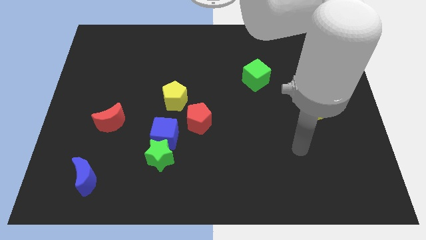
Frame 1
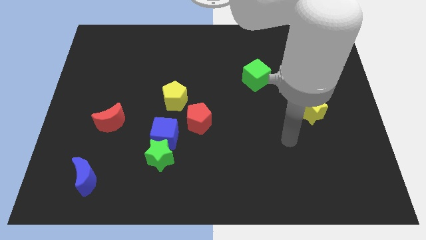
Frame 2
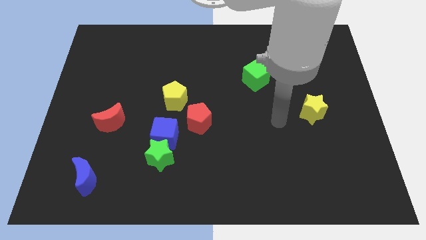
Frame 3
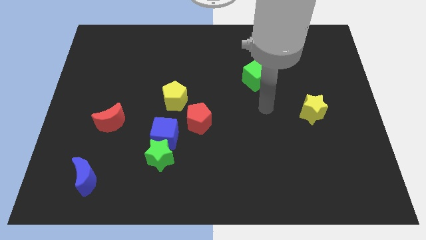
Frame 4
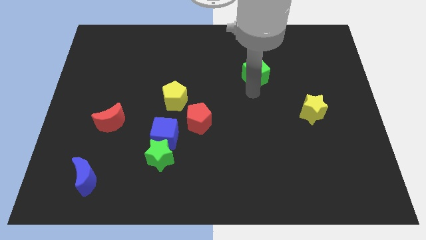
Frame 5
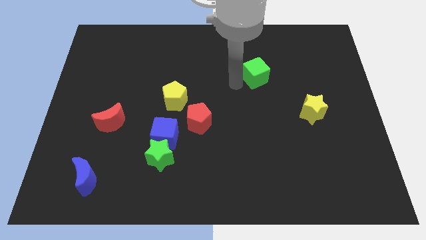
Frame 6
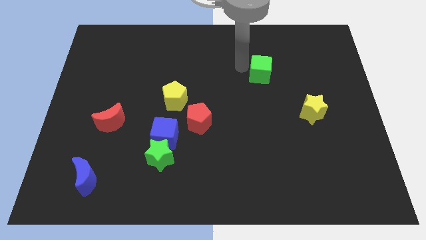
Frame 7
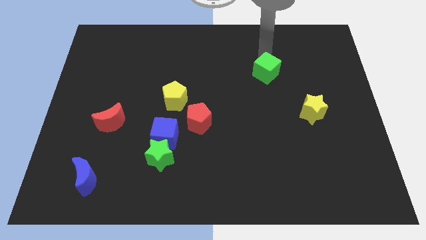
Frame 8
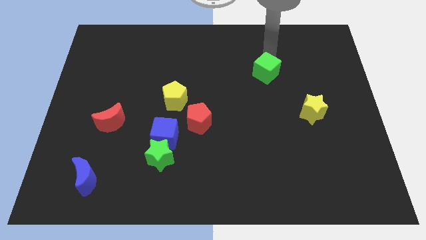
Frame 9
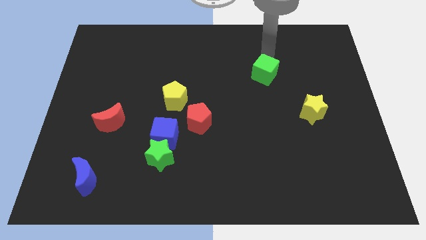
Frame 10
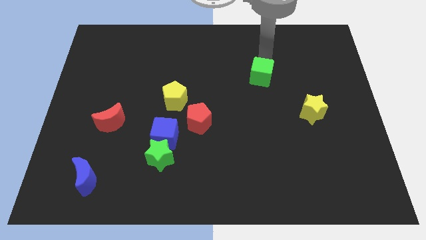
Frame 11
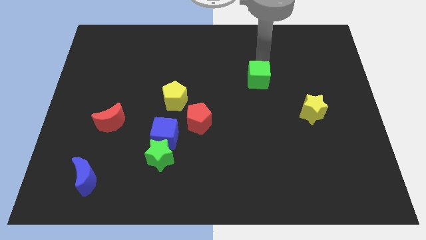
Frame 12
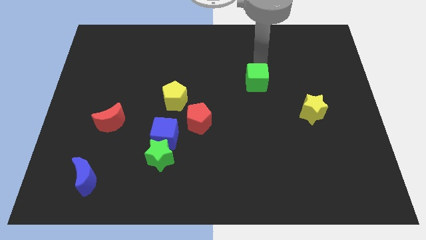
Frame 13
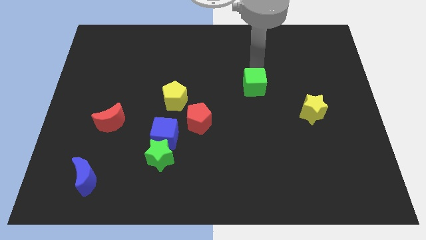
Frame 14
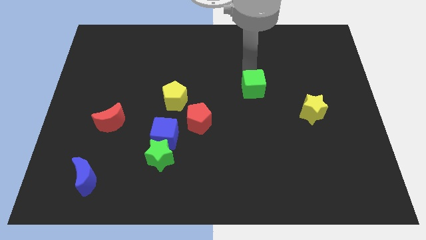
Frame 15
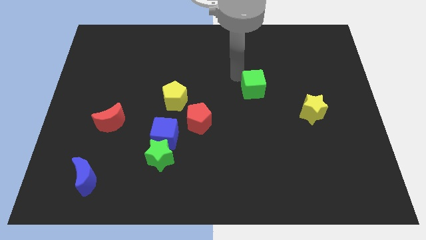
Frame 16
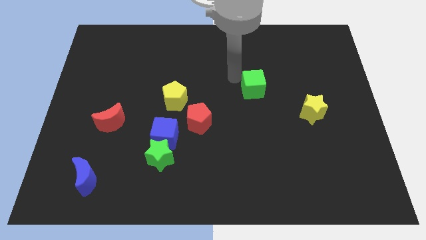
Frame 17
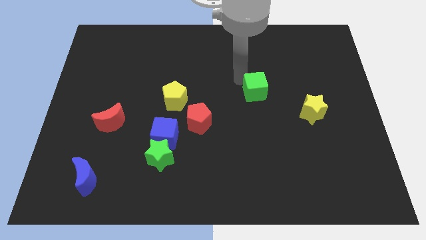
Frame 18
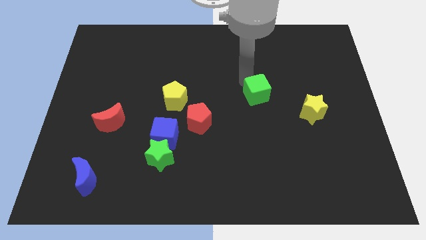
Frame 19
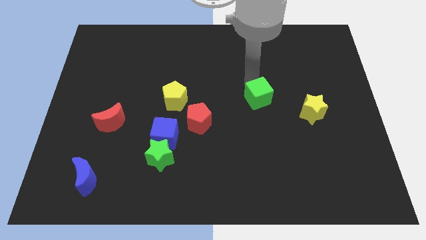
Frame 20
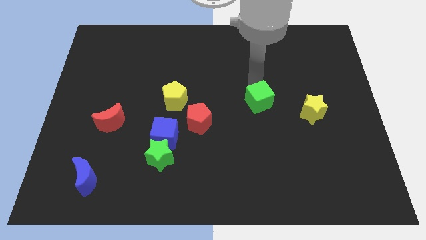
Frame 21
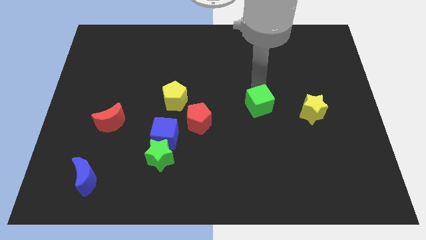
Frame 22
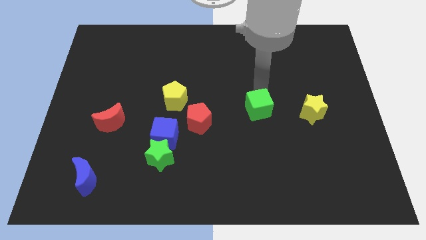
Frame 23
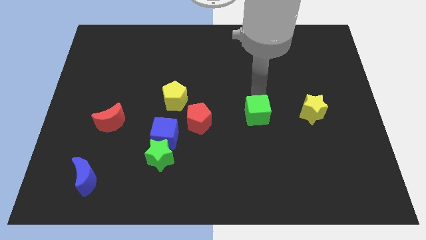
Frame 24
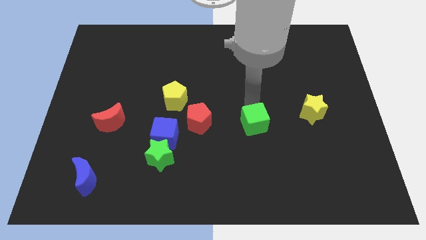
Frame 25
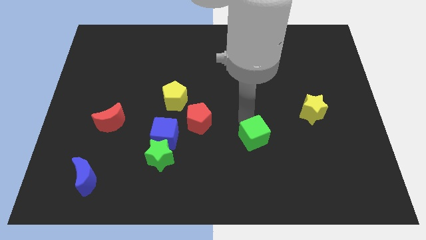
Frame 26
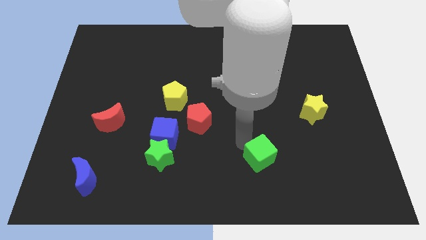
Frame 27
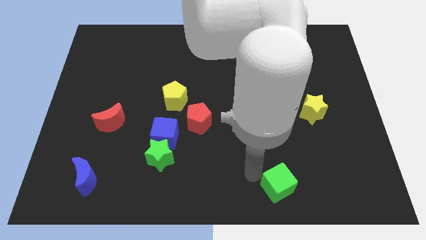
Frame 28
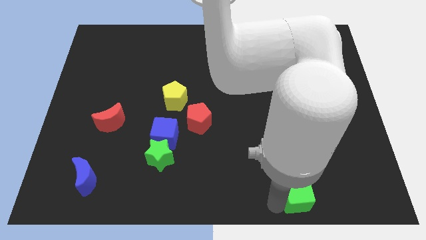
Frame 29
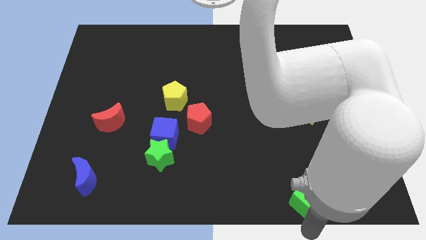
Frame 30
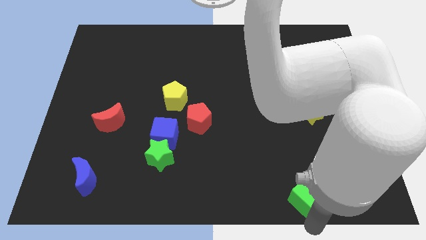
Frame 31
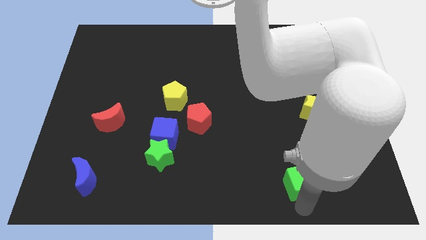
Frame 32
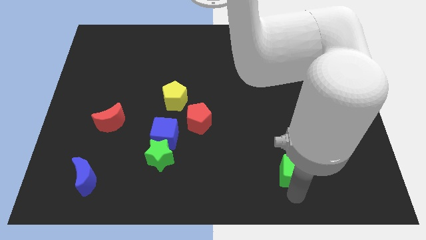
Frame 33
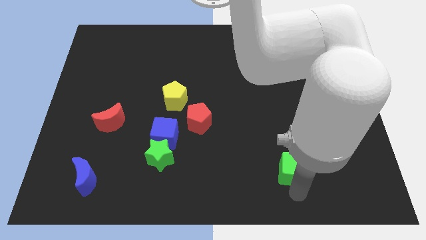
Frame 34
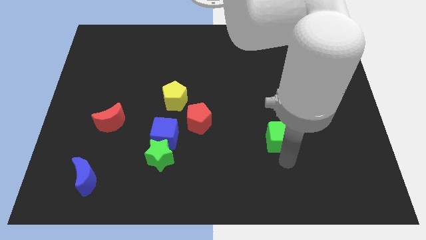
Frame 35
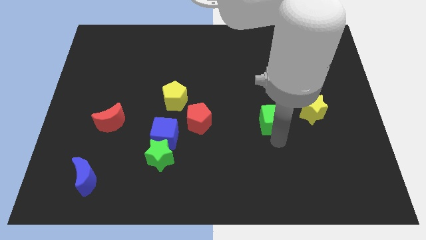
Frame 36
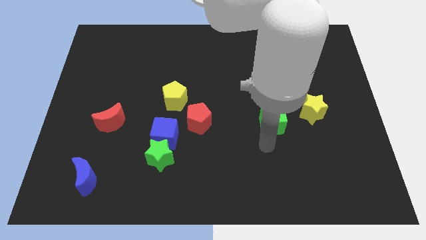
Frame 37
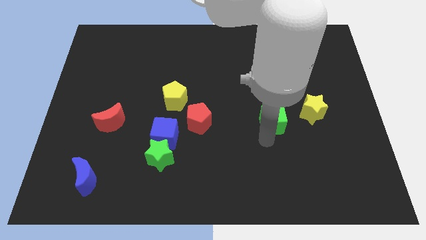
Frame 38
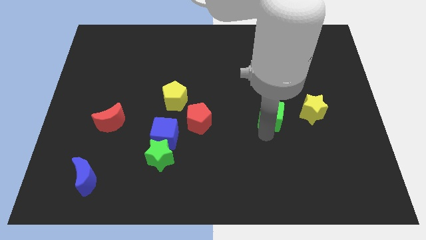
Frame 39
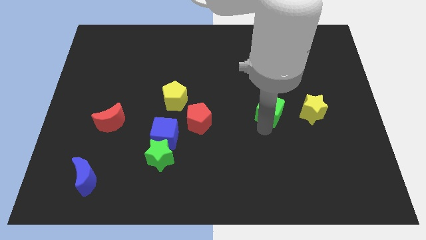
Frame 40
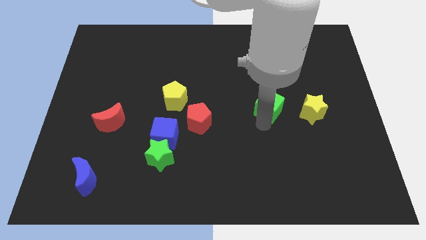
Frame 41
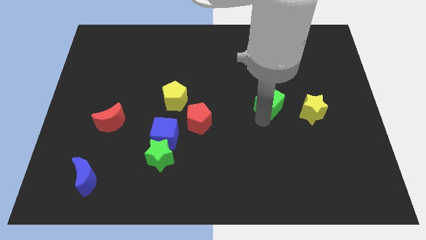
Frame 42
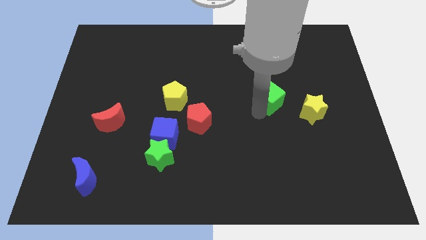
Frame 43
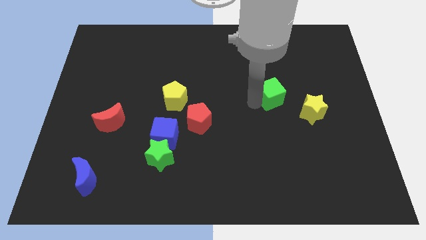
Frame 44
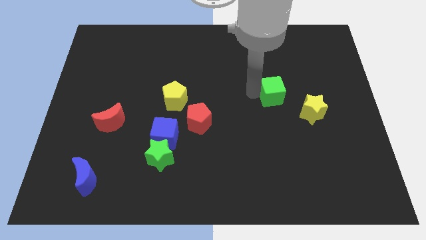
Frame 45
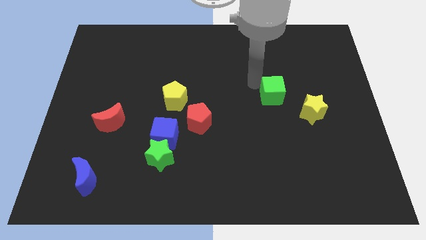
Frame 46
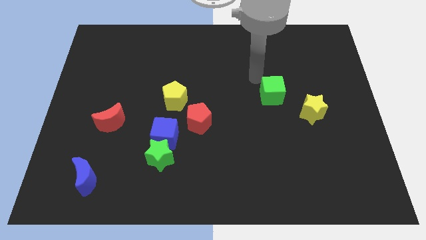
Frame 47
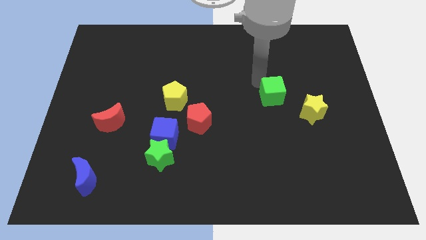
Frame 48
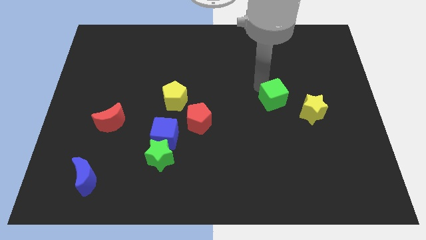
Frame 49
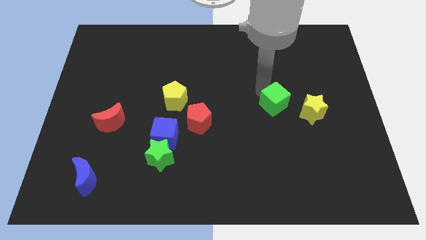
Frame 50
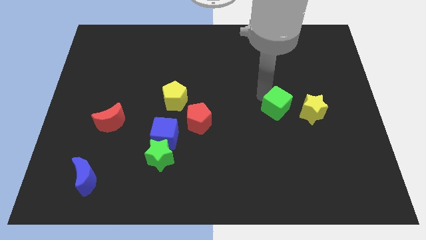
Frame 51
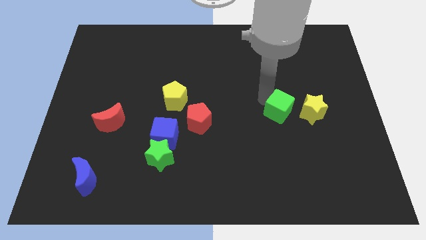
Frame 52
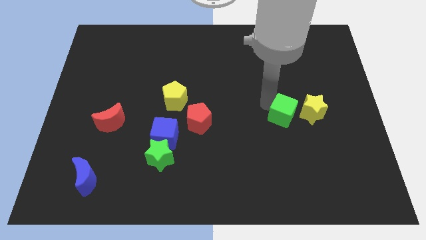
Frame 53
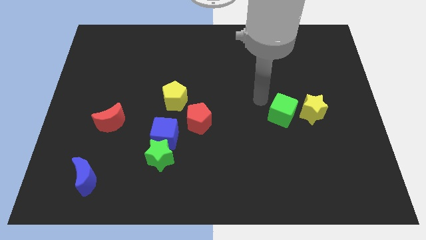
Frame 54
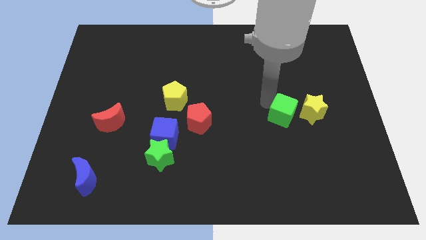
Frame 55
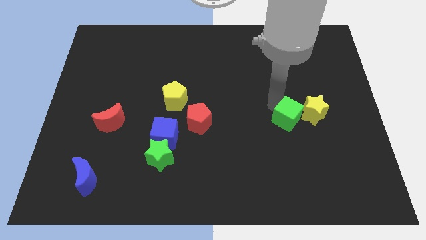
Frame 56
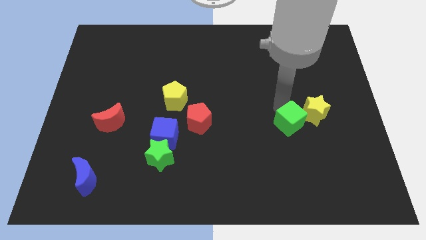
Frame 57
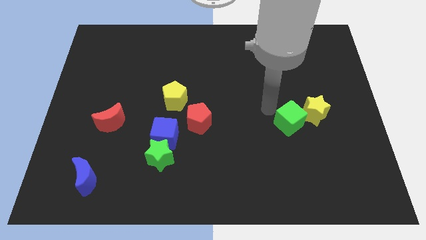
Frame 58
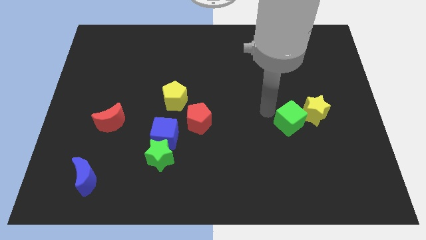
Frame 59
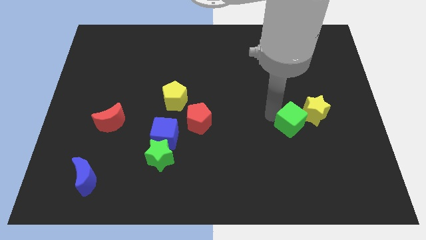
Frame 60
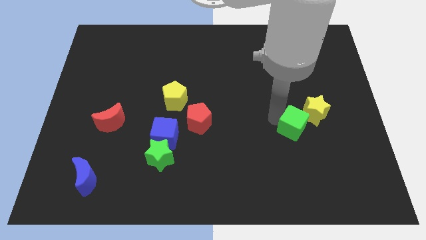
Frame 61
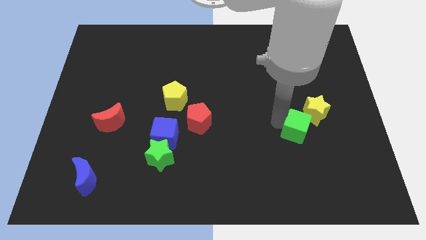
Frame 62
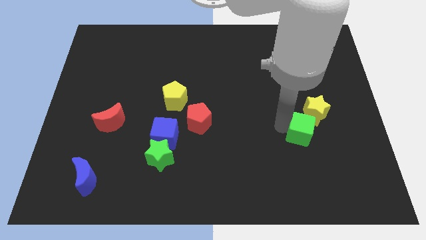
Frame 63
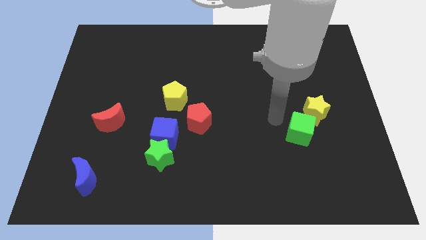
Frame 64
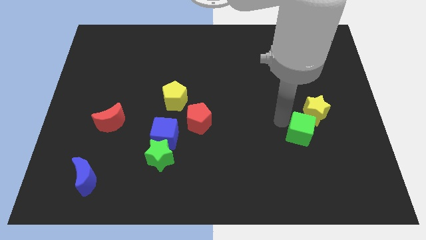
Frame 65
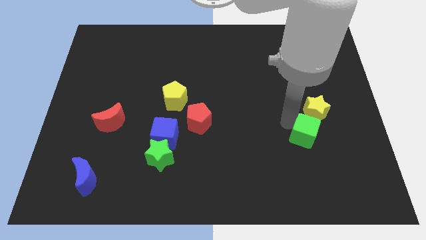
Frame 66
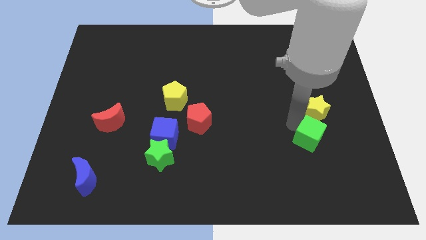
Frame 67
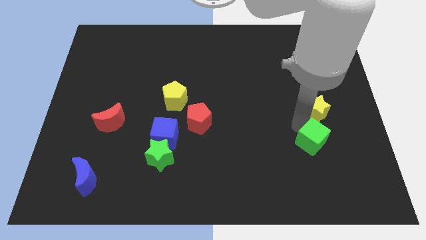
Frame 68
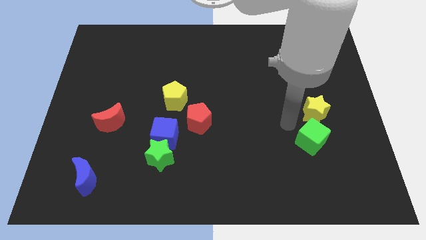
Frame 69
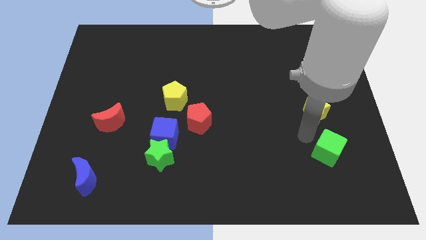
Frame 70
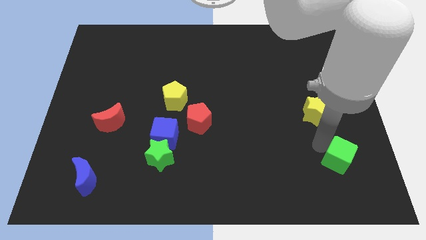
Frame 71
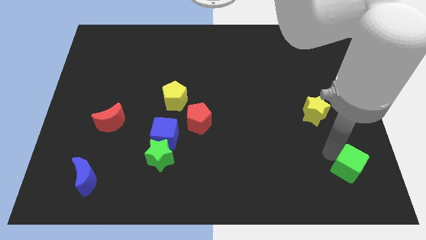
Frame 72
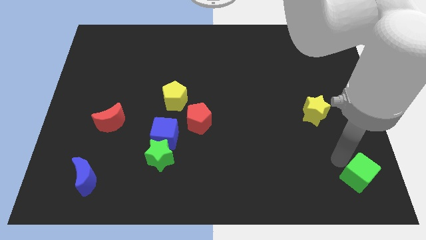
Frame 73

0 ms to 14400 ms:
move the green cube to the lower right corner
